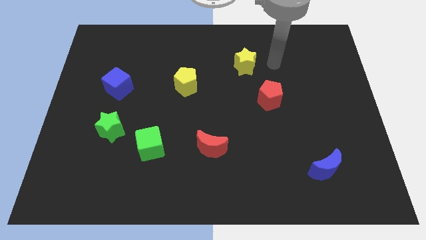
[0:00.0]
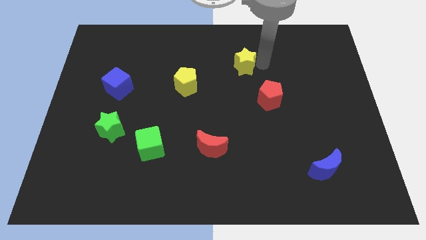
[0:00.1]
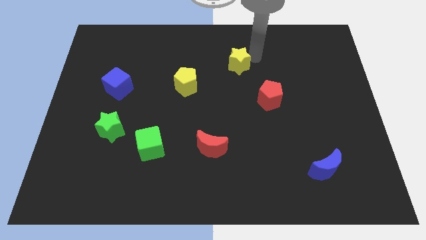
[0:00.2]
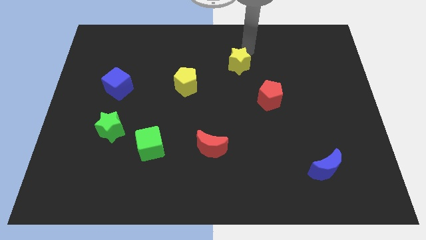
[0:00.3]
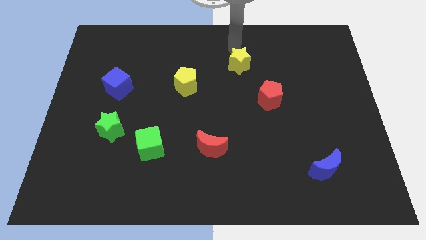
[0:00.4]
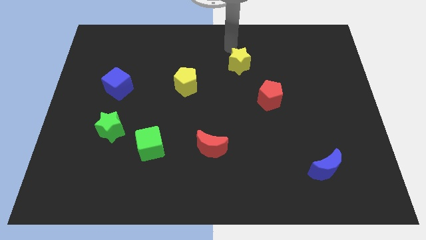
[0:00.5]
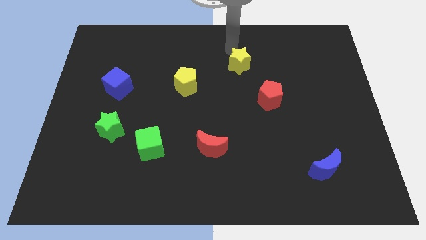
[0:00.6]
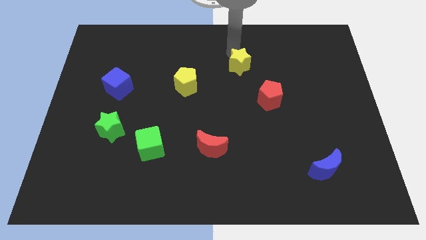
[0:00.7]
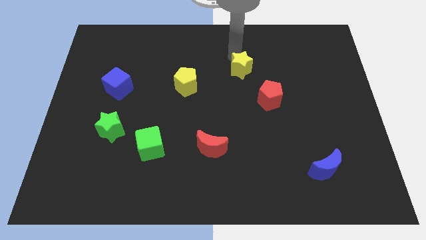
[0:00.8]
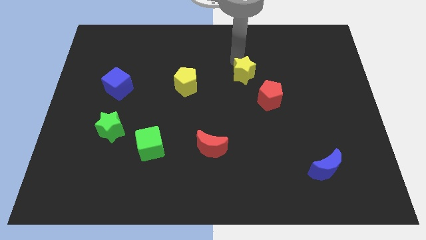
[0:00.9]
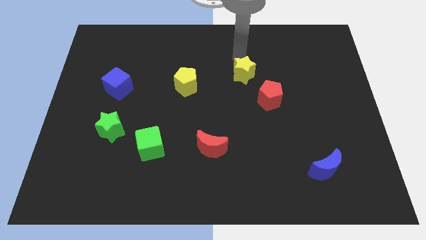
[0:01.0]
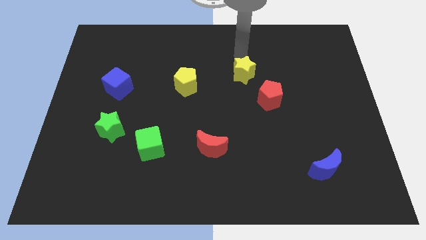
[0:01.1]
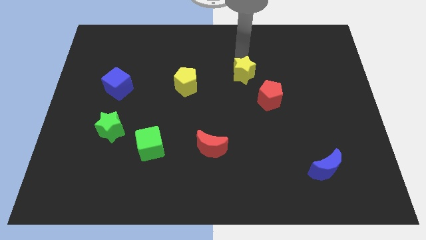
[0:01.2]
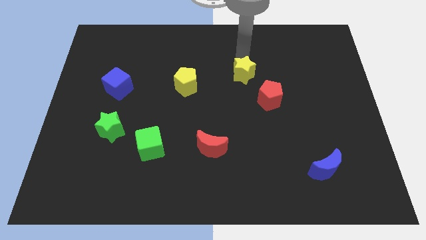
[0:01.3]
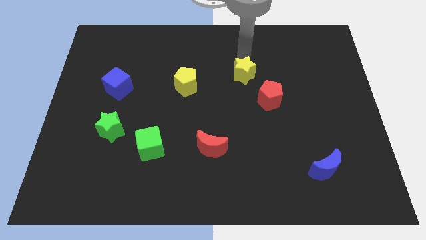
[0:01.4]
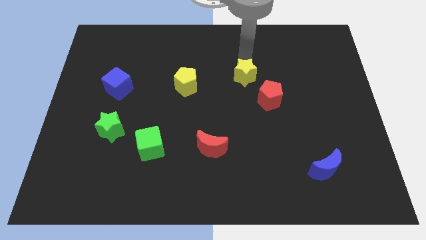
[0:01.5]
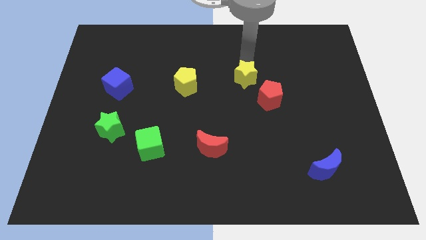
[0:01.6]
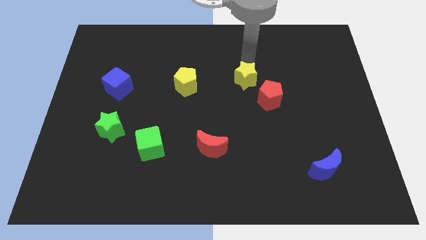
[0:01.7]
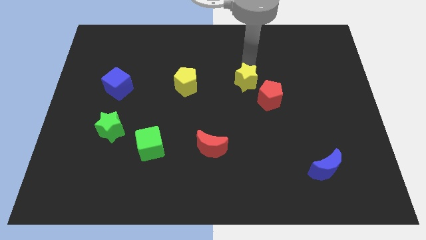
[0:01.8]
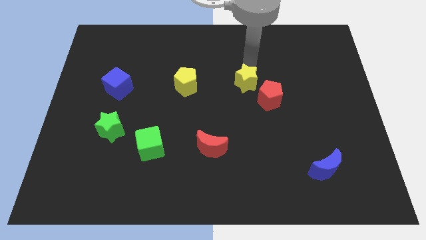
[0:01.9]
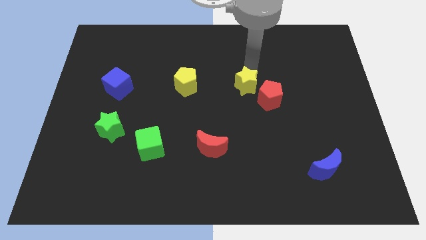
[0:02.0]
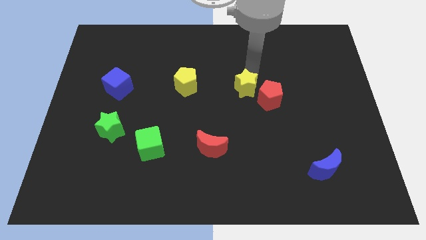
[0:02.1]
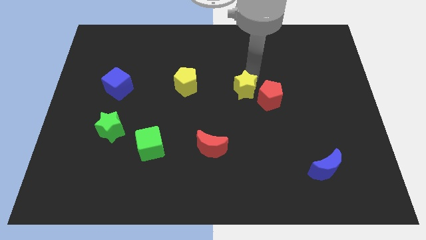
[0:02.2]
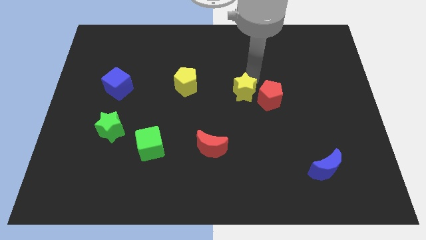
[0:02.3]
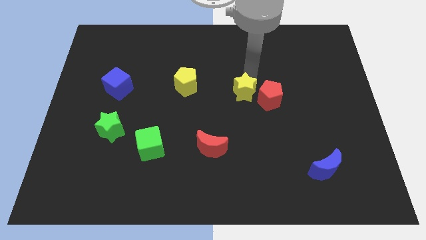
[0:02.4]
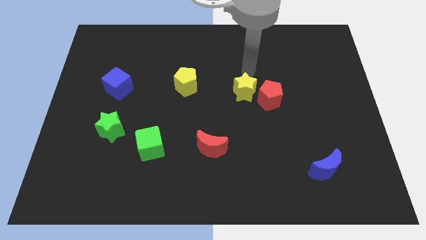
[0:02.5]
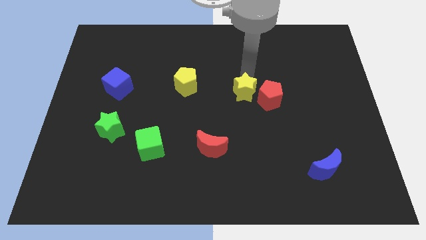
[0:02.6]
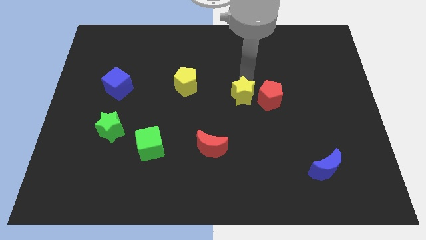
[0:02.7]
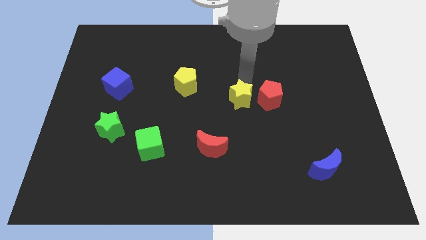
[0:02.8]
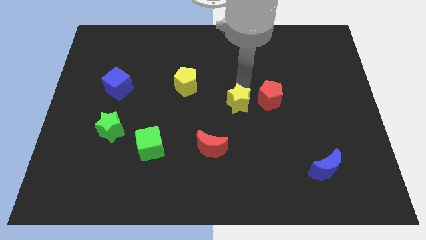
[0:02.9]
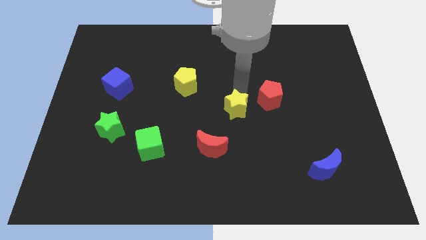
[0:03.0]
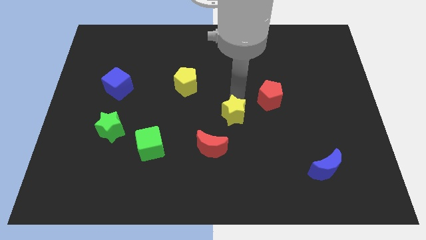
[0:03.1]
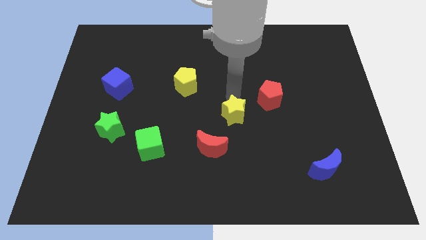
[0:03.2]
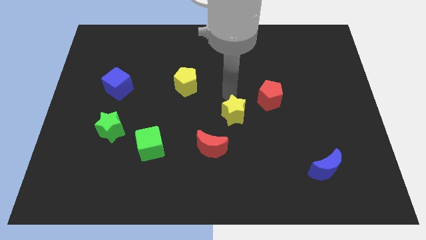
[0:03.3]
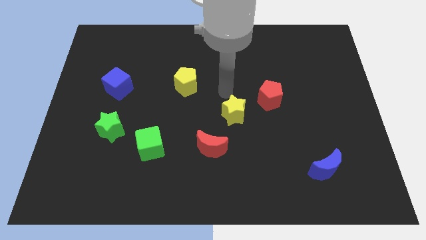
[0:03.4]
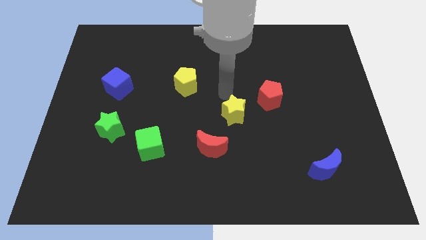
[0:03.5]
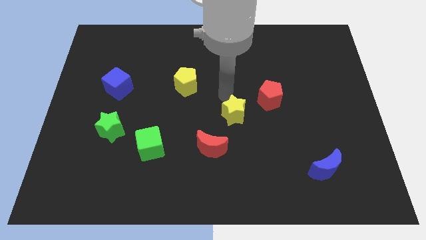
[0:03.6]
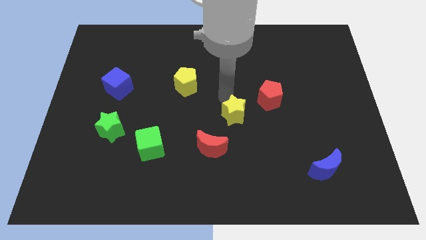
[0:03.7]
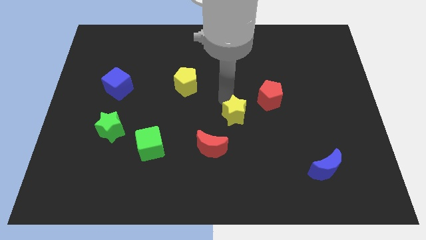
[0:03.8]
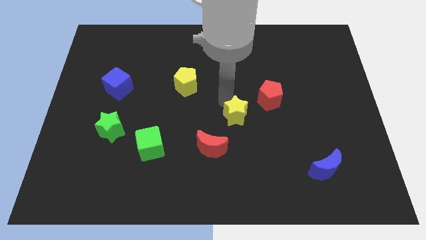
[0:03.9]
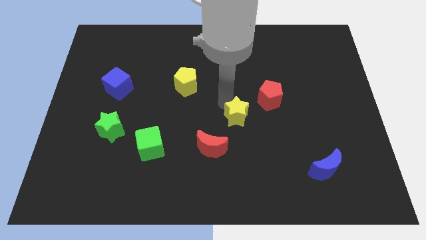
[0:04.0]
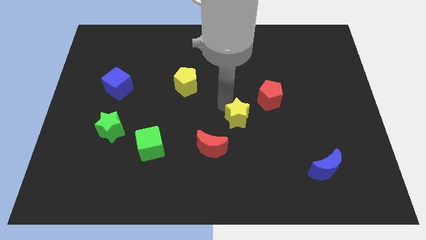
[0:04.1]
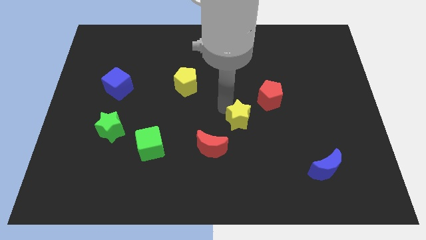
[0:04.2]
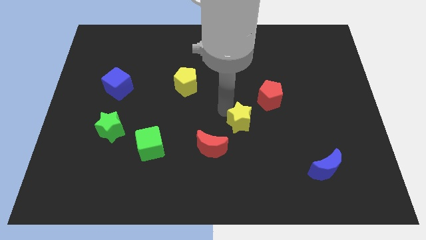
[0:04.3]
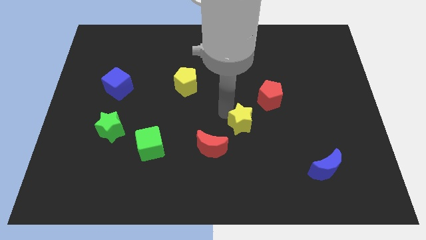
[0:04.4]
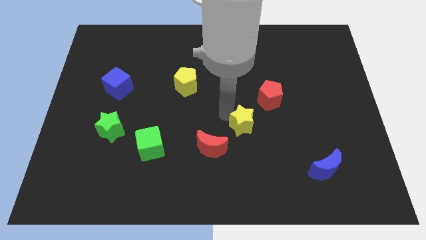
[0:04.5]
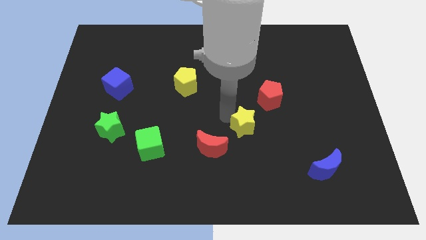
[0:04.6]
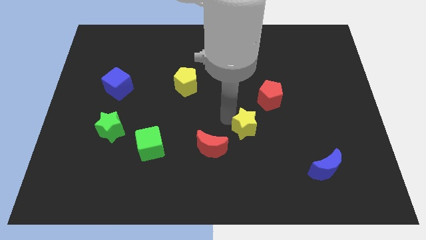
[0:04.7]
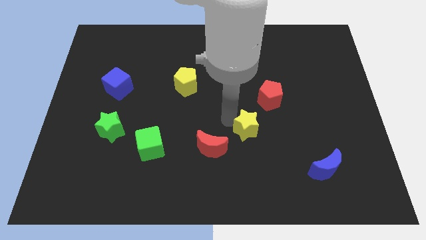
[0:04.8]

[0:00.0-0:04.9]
slide the yellow star down

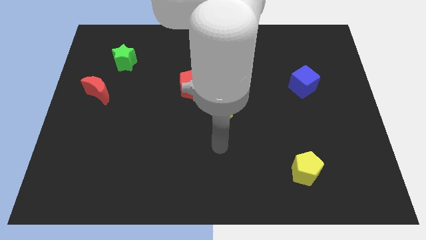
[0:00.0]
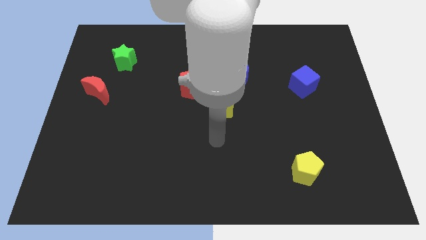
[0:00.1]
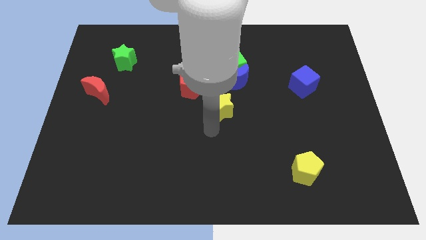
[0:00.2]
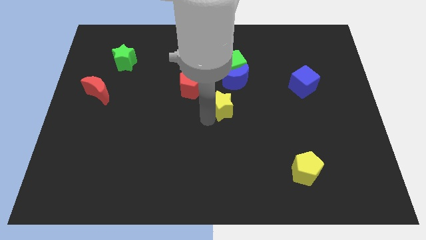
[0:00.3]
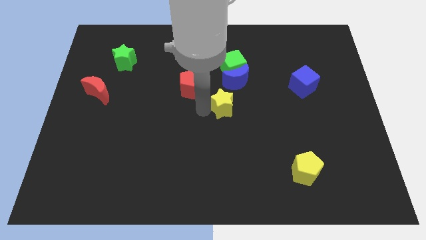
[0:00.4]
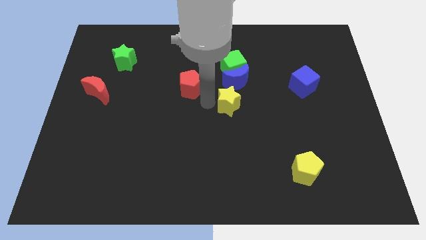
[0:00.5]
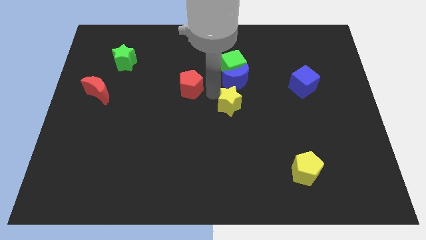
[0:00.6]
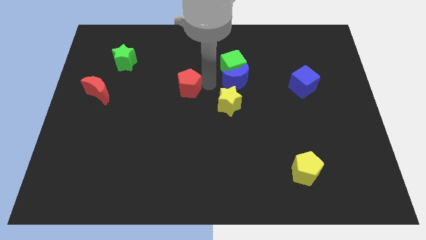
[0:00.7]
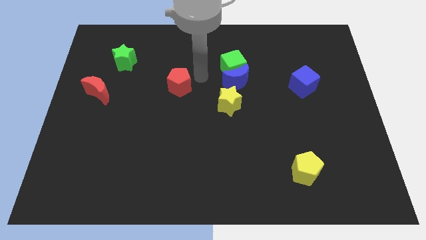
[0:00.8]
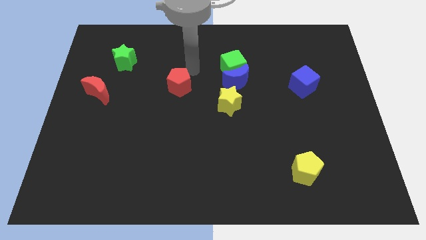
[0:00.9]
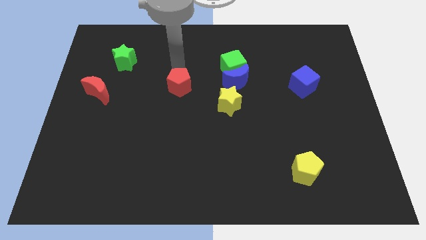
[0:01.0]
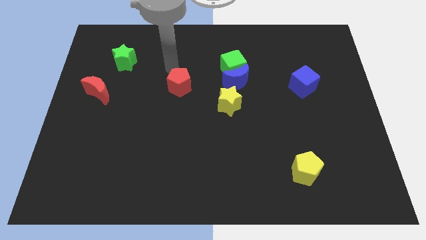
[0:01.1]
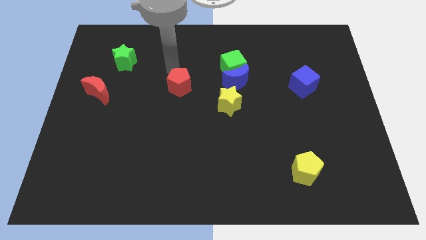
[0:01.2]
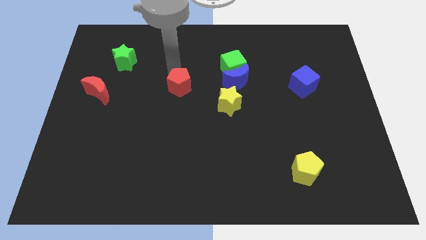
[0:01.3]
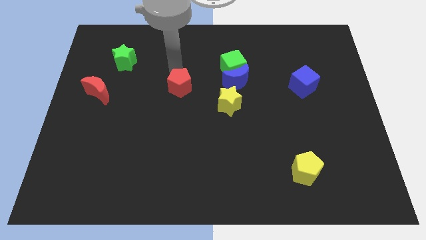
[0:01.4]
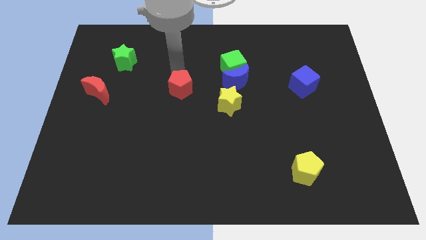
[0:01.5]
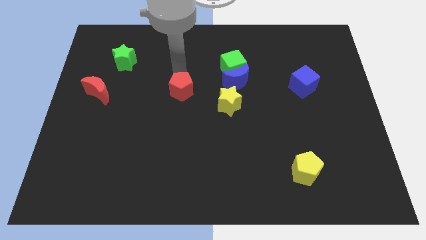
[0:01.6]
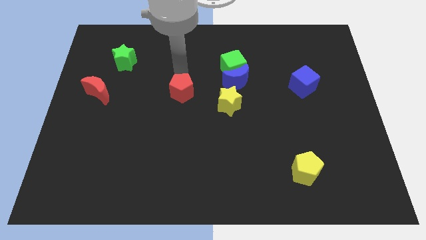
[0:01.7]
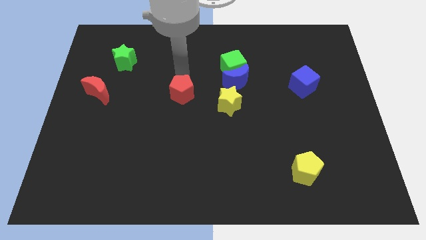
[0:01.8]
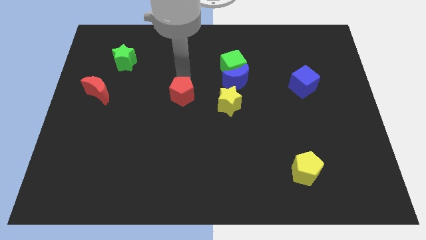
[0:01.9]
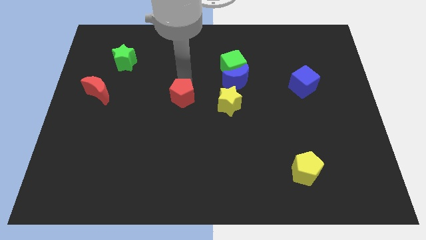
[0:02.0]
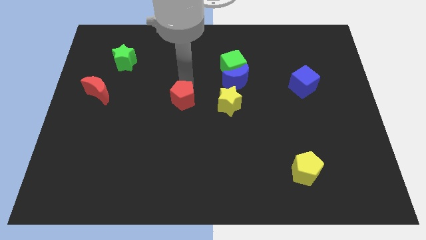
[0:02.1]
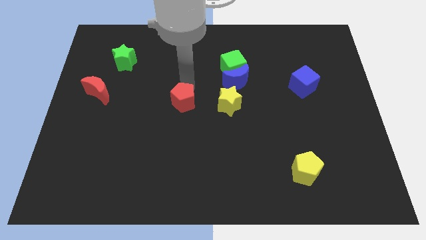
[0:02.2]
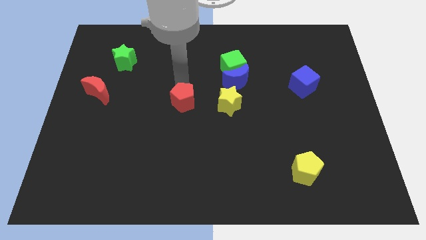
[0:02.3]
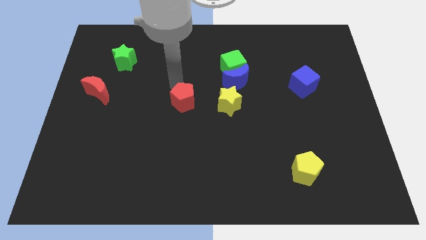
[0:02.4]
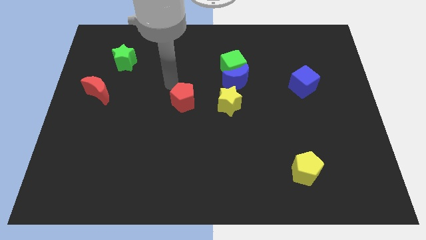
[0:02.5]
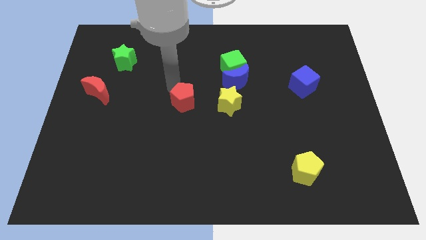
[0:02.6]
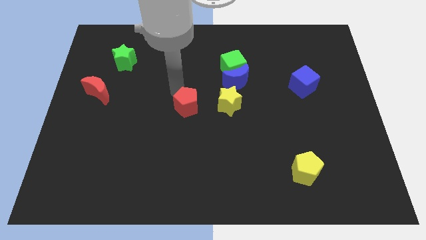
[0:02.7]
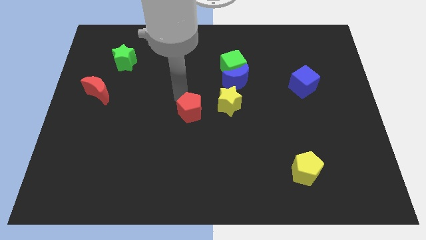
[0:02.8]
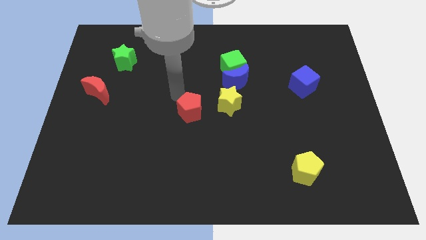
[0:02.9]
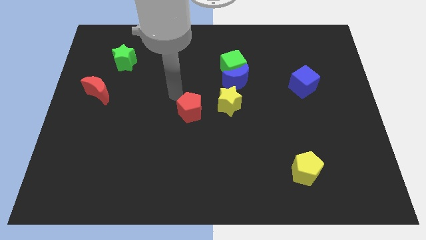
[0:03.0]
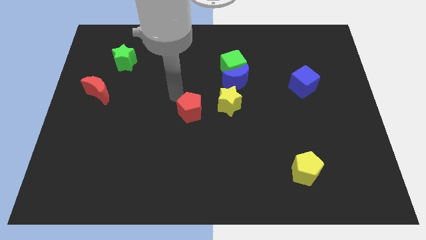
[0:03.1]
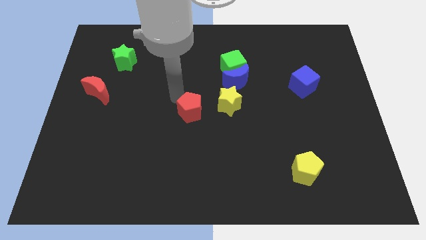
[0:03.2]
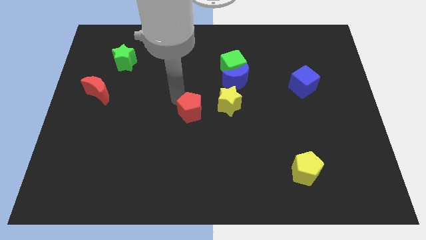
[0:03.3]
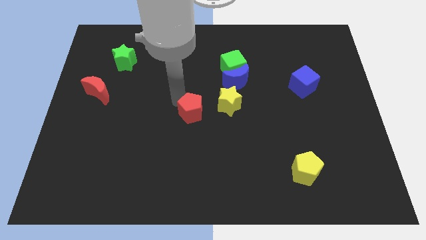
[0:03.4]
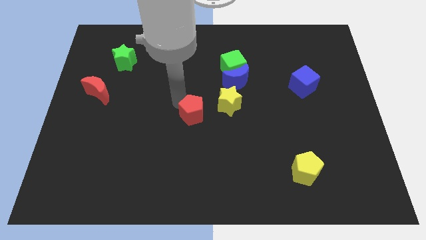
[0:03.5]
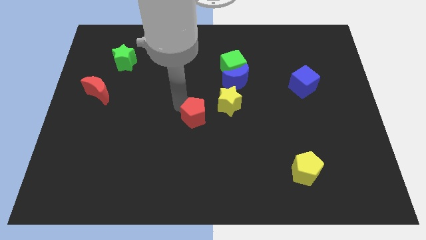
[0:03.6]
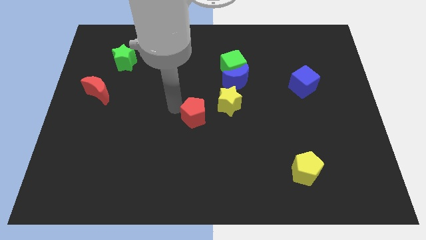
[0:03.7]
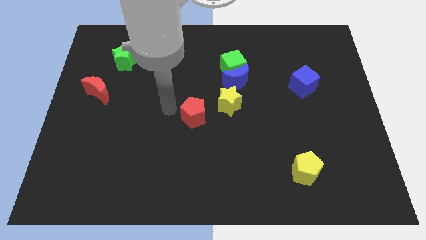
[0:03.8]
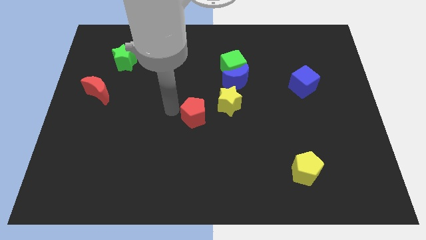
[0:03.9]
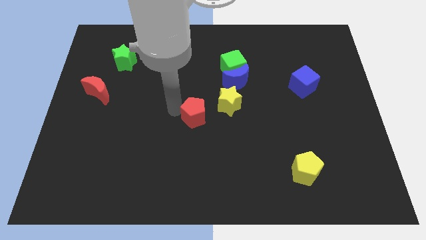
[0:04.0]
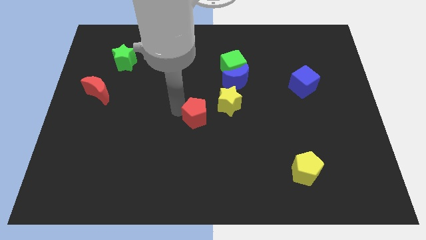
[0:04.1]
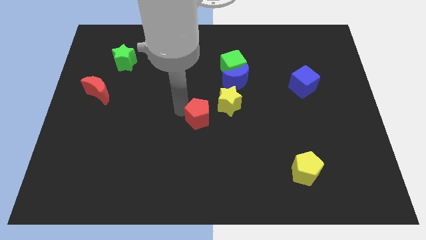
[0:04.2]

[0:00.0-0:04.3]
push the red pentagon downwards and to the right slightly
